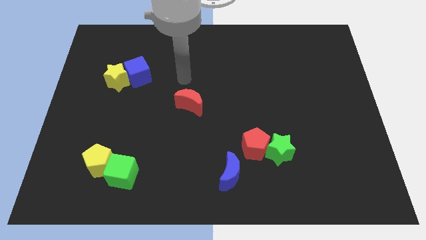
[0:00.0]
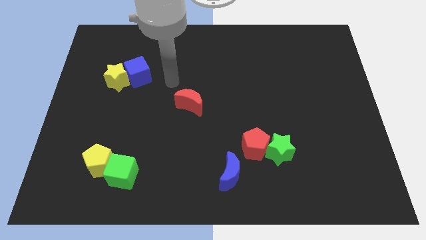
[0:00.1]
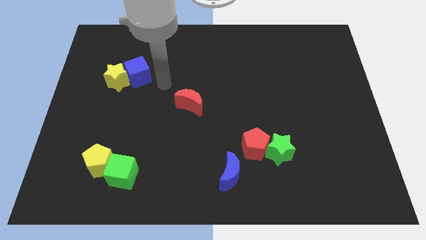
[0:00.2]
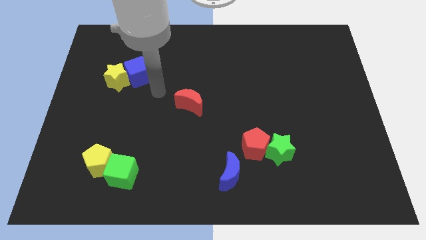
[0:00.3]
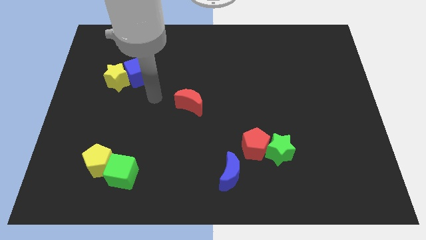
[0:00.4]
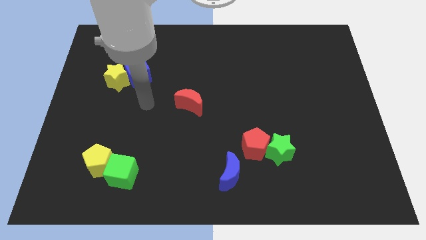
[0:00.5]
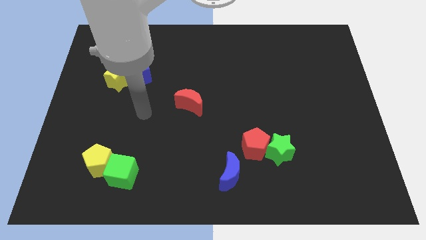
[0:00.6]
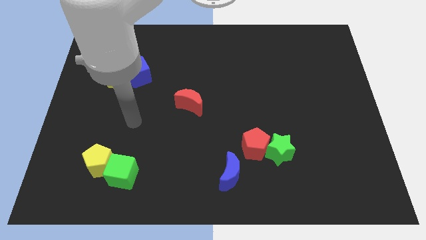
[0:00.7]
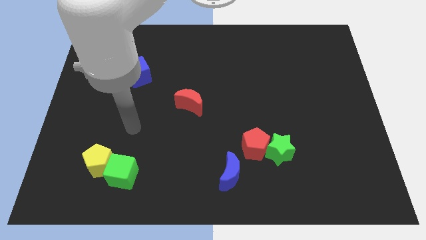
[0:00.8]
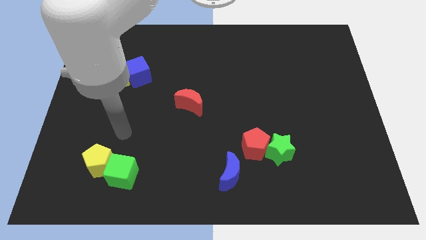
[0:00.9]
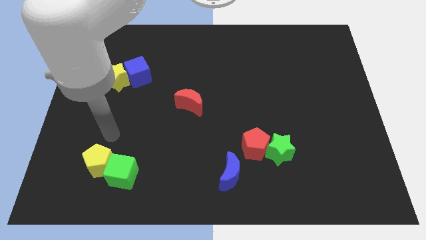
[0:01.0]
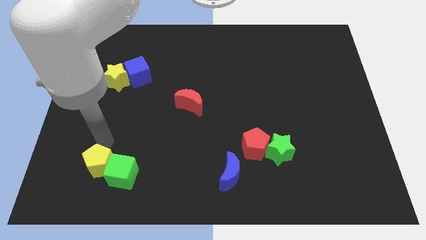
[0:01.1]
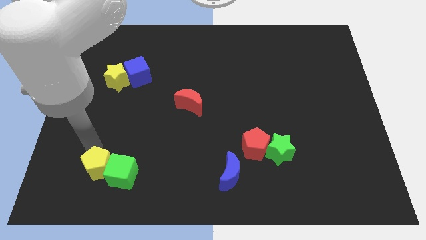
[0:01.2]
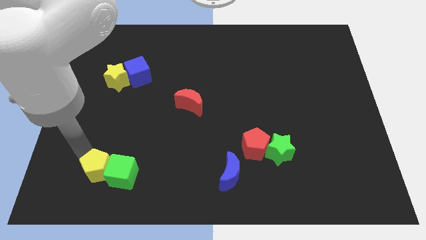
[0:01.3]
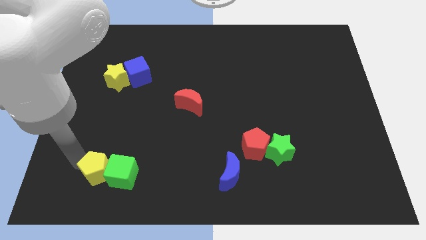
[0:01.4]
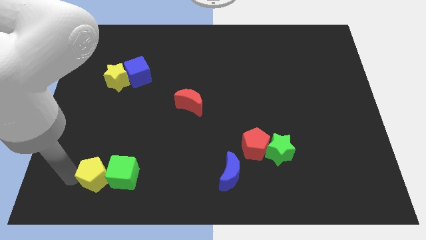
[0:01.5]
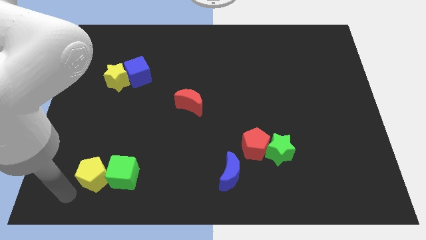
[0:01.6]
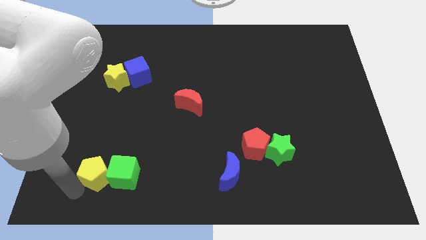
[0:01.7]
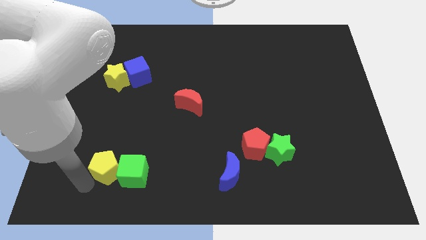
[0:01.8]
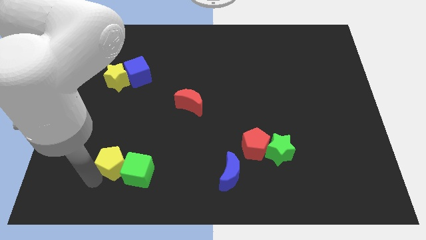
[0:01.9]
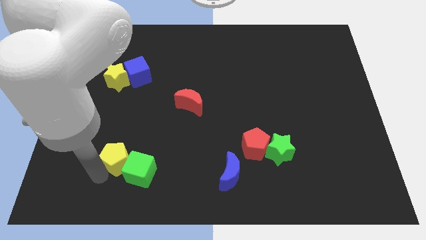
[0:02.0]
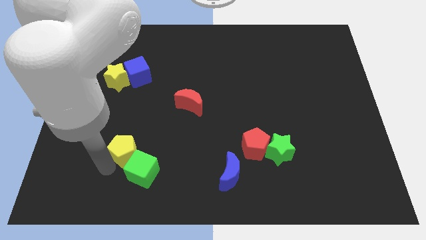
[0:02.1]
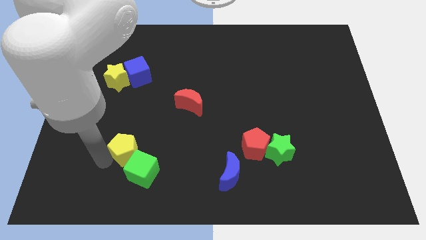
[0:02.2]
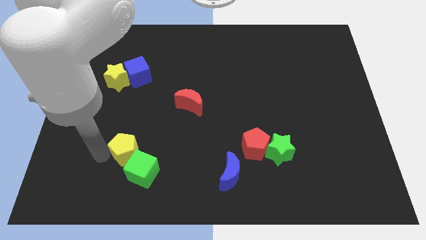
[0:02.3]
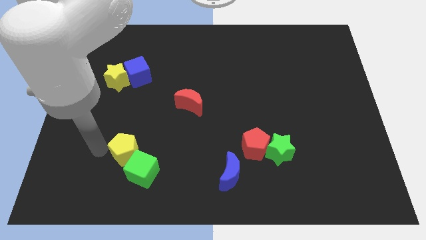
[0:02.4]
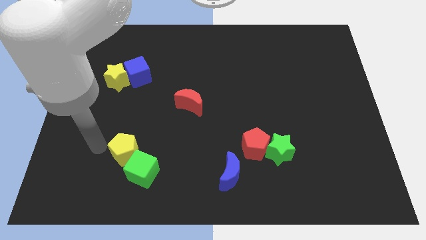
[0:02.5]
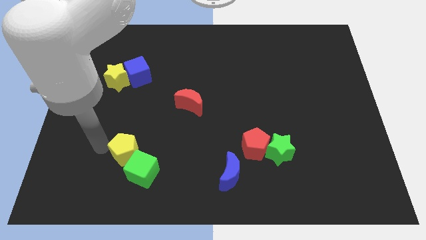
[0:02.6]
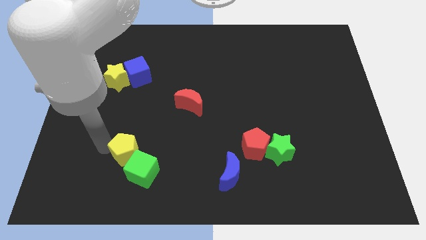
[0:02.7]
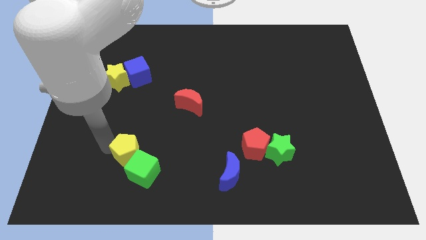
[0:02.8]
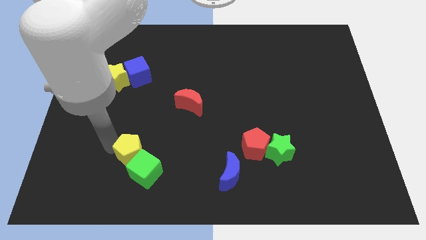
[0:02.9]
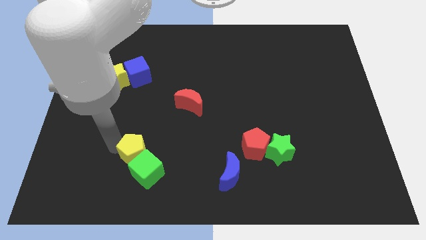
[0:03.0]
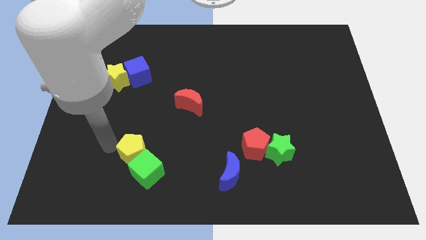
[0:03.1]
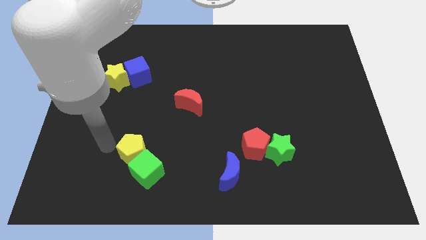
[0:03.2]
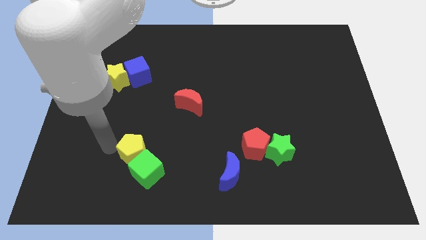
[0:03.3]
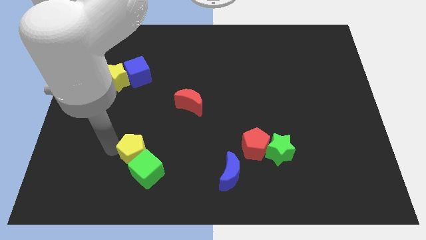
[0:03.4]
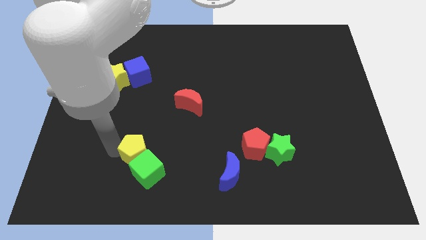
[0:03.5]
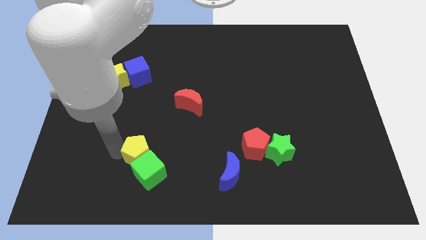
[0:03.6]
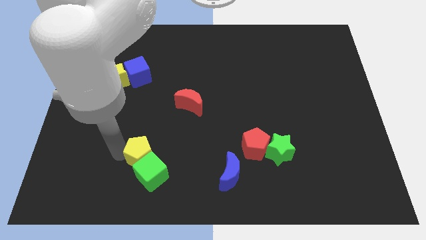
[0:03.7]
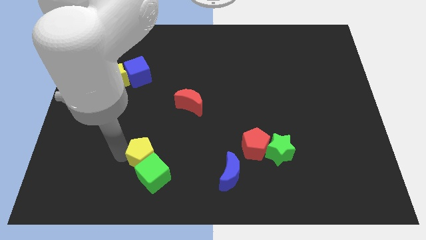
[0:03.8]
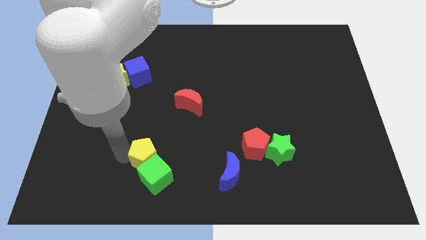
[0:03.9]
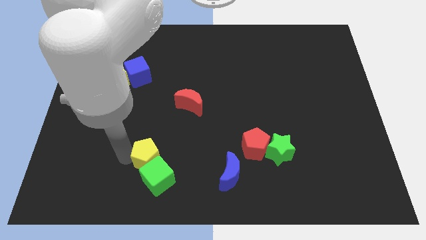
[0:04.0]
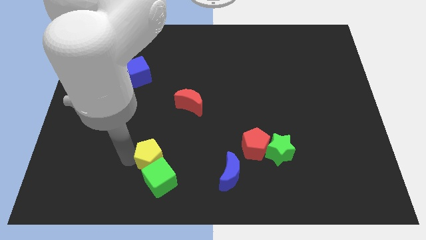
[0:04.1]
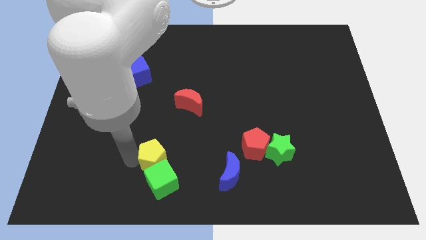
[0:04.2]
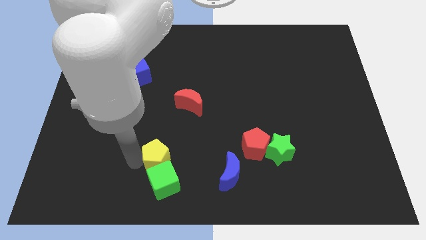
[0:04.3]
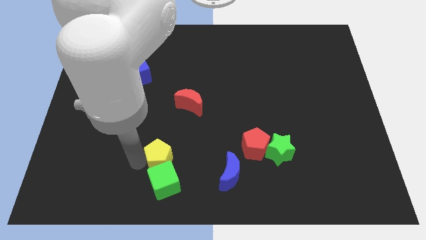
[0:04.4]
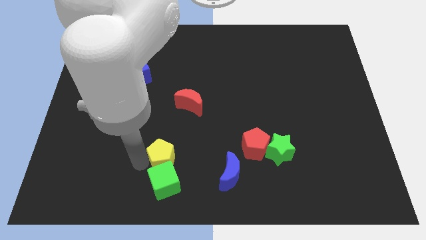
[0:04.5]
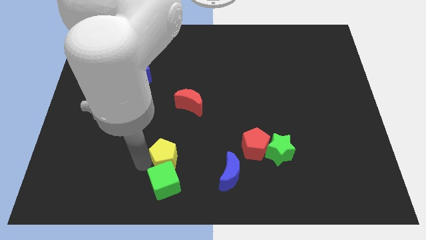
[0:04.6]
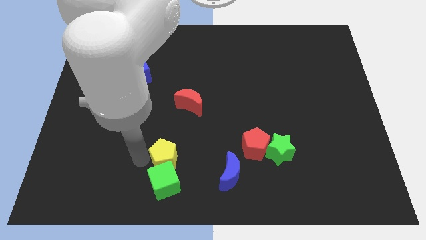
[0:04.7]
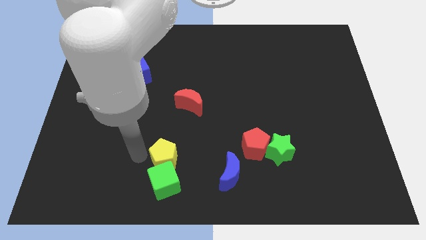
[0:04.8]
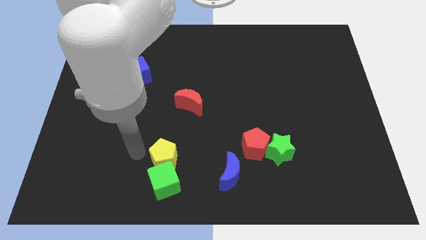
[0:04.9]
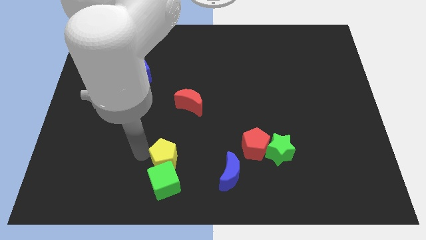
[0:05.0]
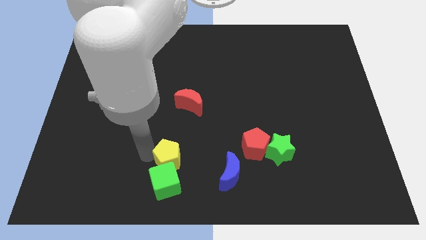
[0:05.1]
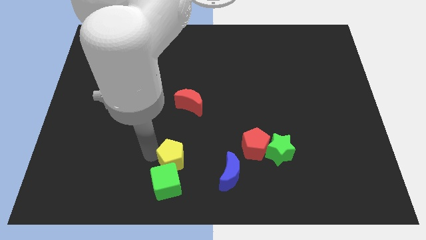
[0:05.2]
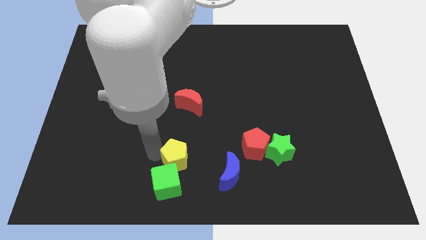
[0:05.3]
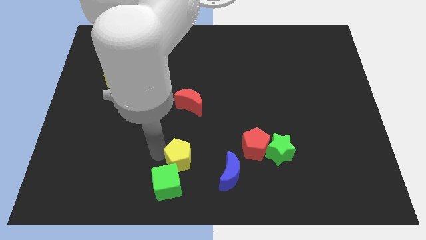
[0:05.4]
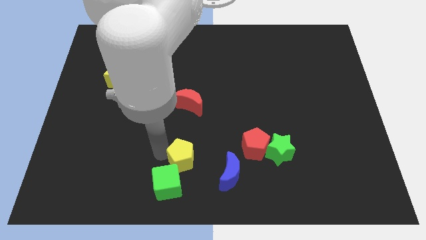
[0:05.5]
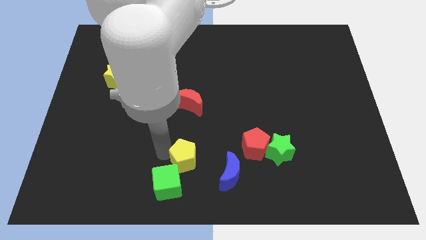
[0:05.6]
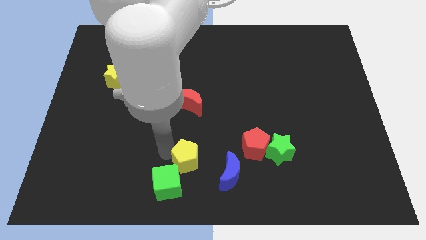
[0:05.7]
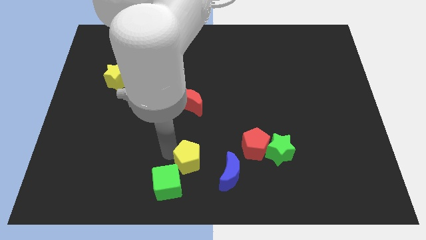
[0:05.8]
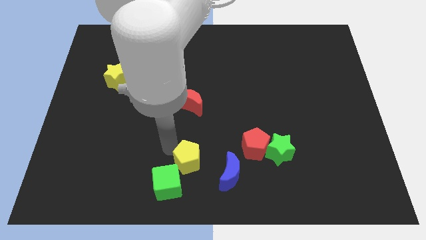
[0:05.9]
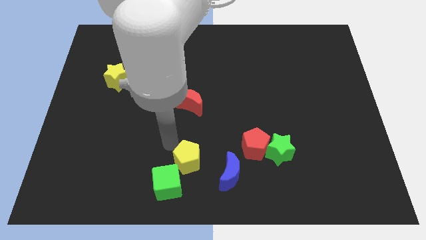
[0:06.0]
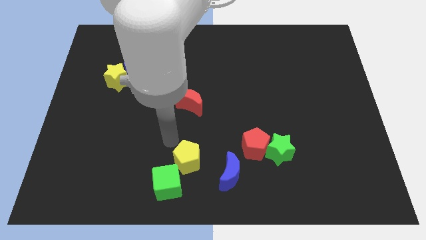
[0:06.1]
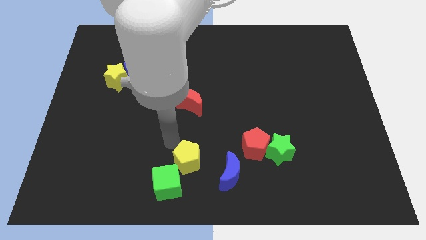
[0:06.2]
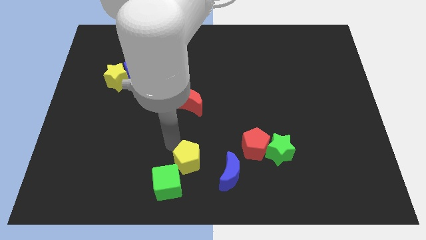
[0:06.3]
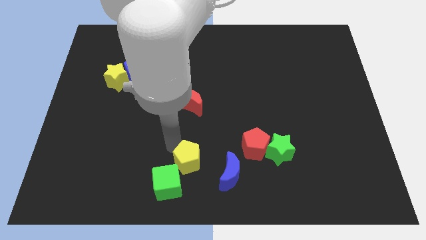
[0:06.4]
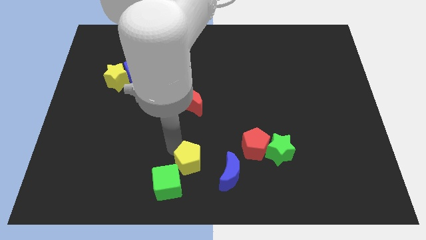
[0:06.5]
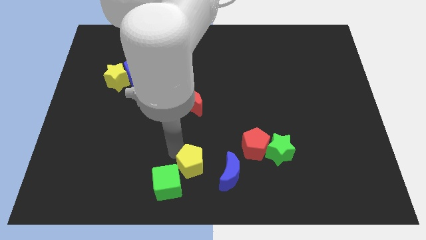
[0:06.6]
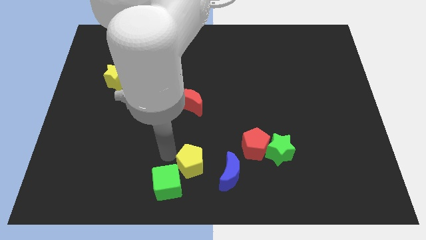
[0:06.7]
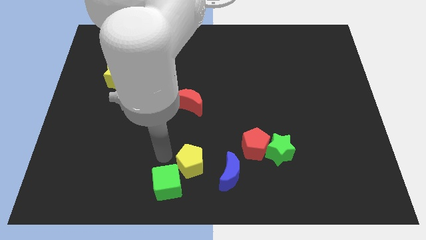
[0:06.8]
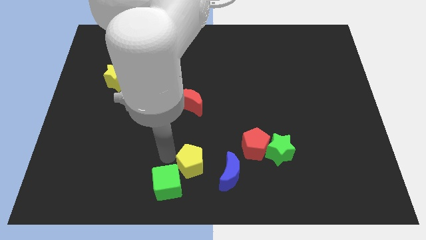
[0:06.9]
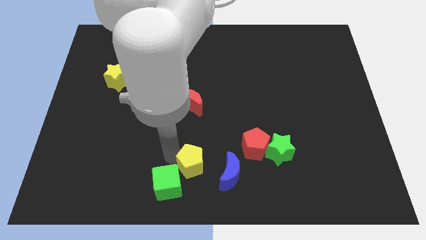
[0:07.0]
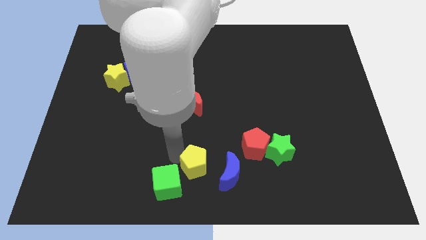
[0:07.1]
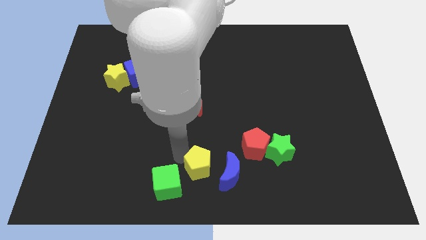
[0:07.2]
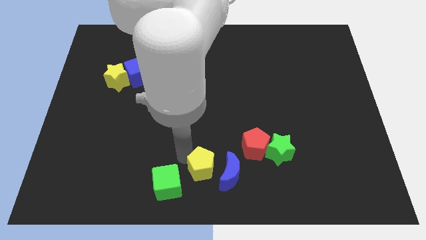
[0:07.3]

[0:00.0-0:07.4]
slide the yellow pentagon towards the blue moon

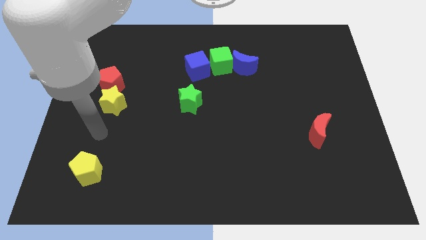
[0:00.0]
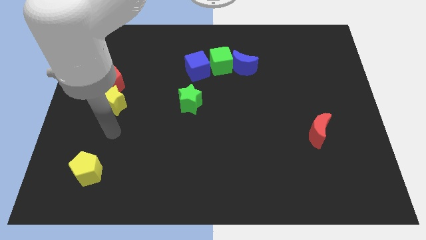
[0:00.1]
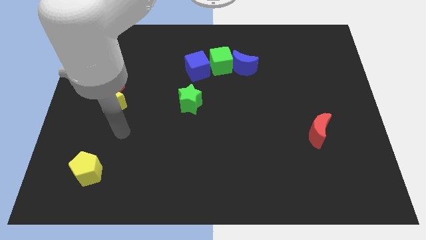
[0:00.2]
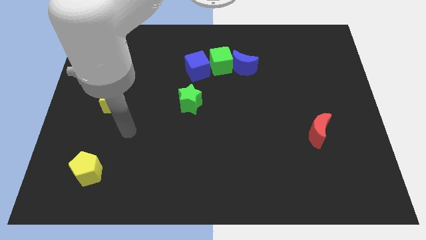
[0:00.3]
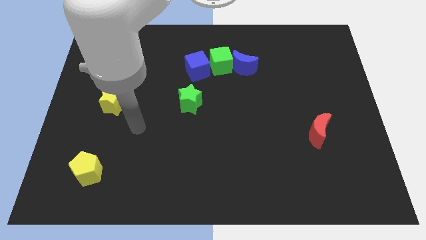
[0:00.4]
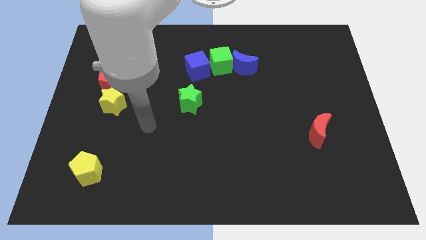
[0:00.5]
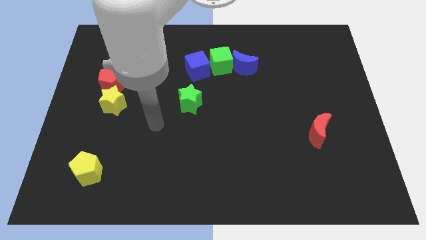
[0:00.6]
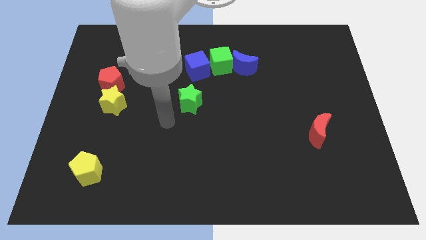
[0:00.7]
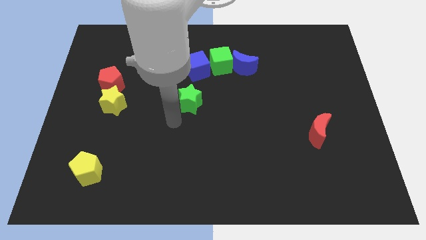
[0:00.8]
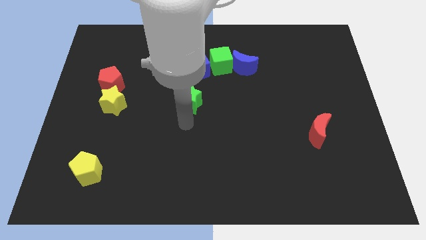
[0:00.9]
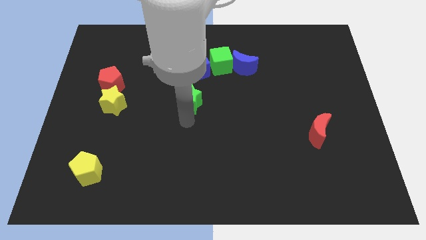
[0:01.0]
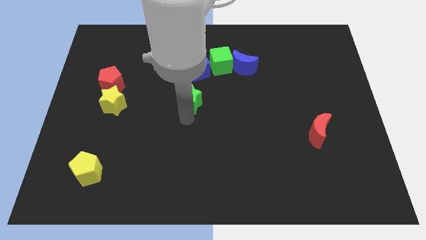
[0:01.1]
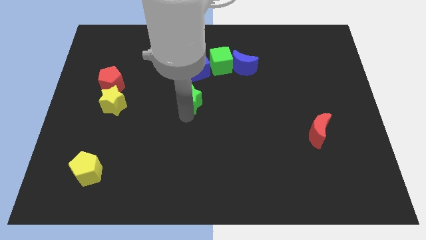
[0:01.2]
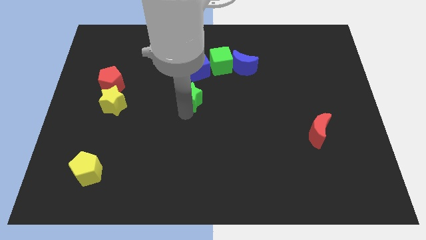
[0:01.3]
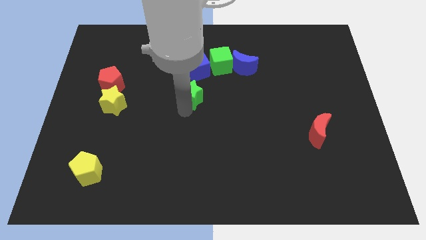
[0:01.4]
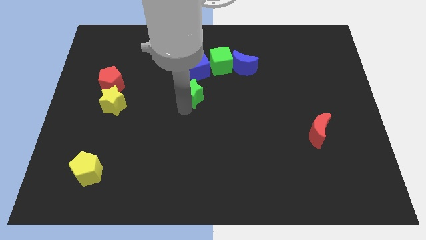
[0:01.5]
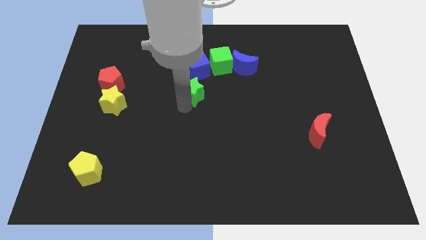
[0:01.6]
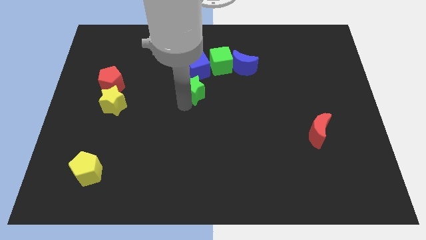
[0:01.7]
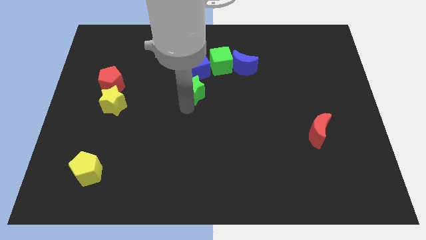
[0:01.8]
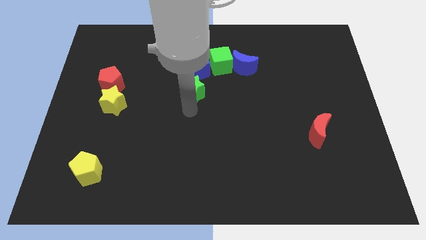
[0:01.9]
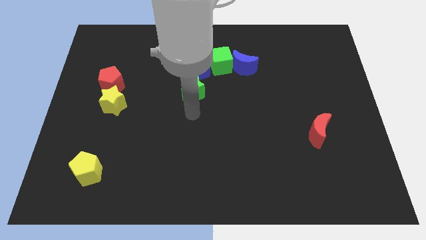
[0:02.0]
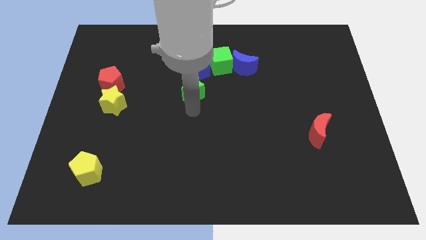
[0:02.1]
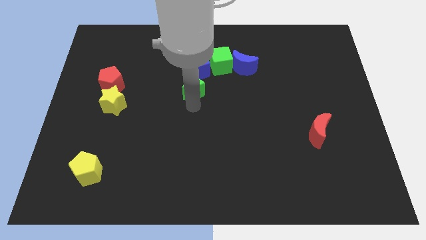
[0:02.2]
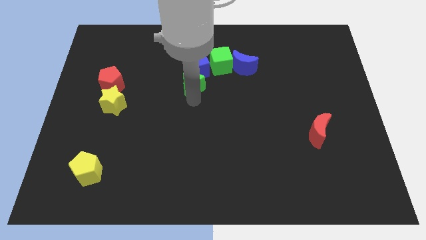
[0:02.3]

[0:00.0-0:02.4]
push the green star next to the blue cube
